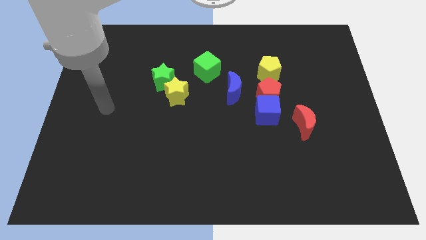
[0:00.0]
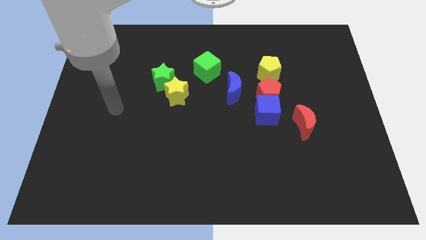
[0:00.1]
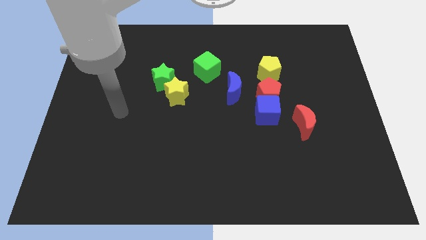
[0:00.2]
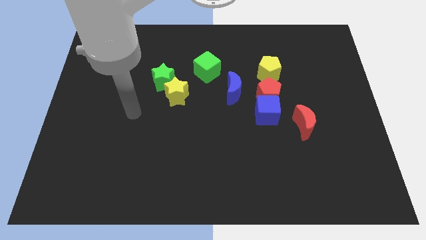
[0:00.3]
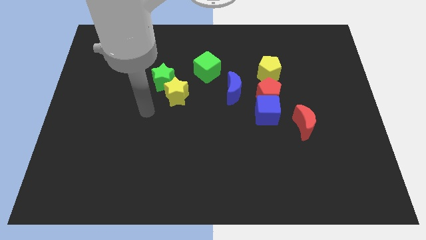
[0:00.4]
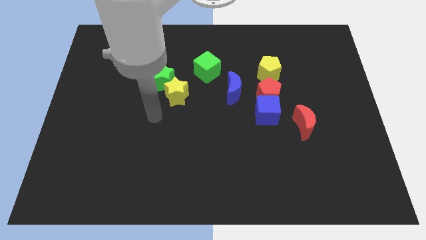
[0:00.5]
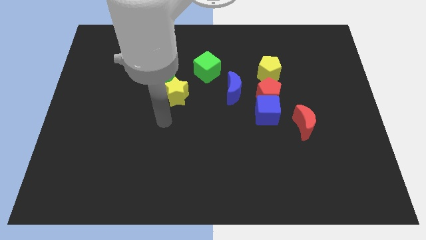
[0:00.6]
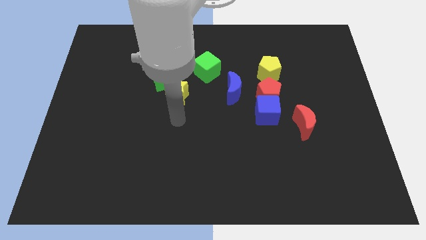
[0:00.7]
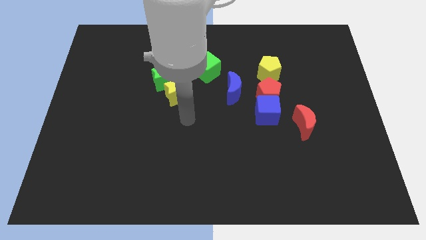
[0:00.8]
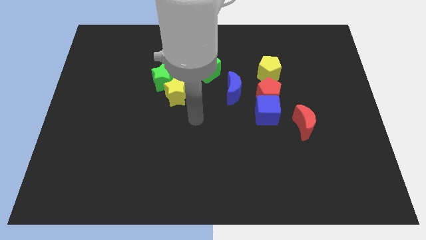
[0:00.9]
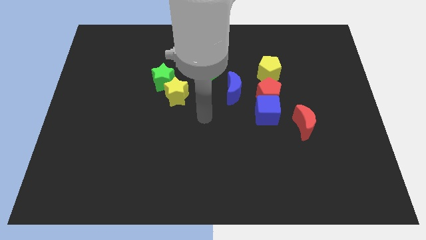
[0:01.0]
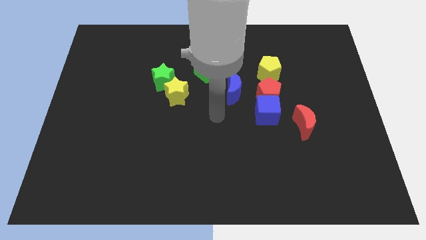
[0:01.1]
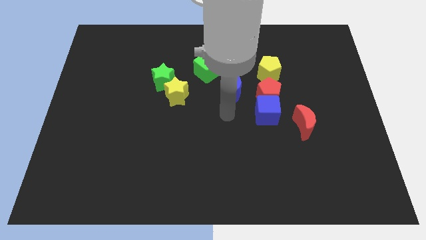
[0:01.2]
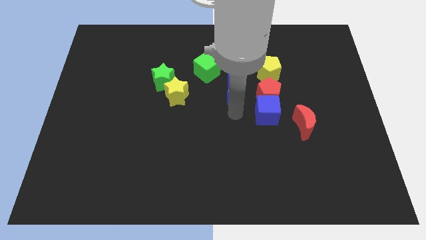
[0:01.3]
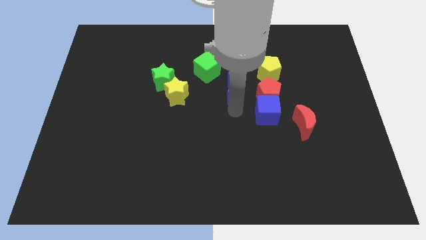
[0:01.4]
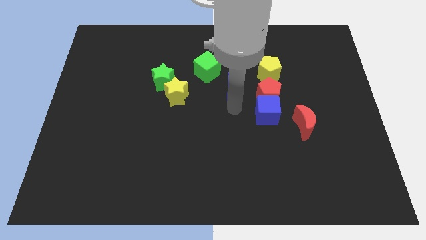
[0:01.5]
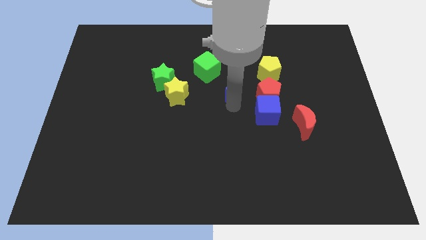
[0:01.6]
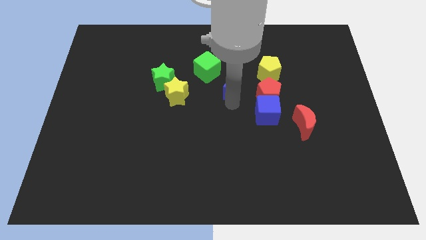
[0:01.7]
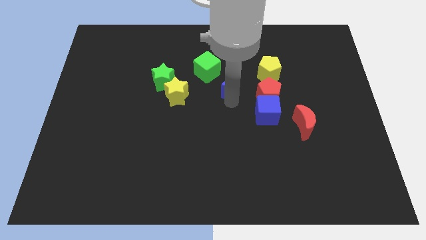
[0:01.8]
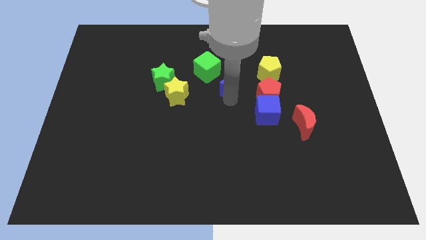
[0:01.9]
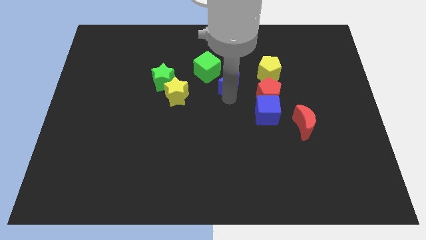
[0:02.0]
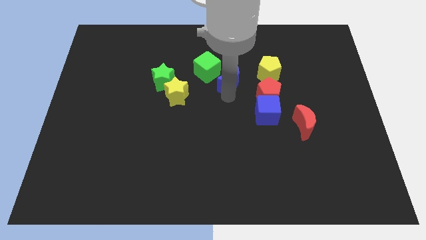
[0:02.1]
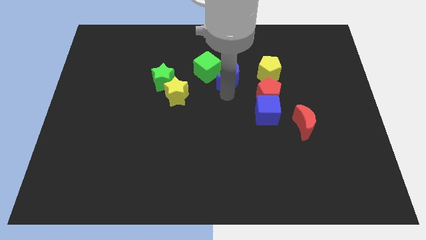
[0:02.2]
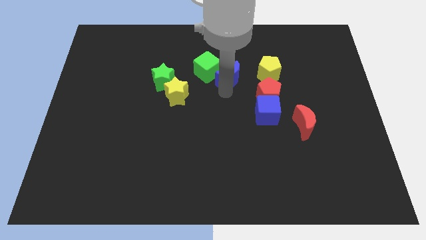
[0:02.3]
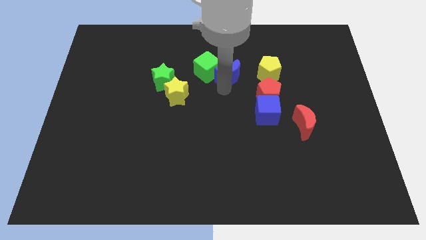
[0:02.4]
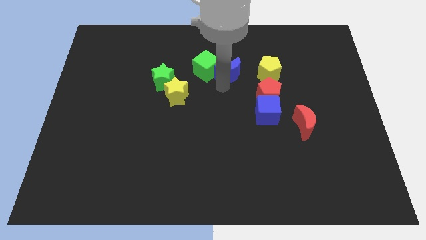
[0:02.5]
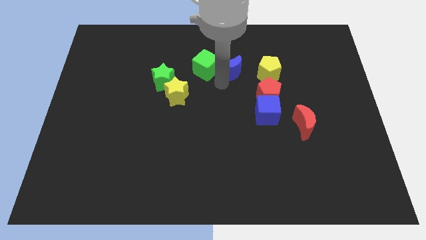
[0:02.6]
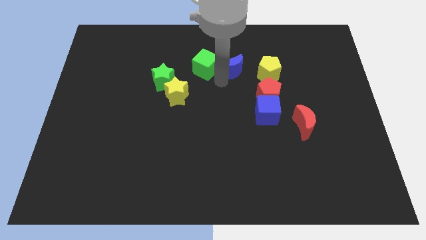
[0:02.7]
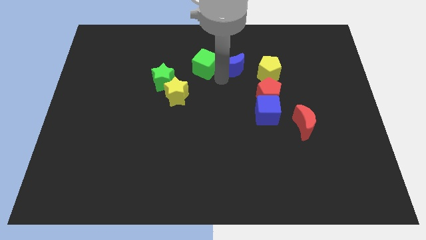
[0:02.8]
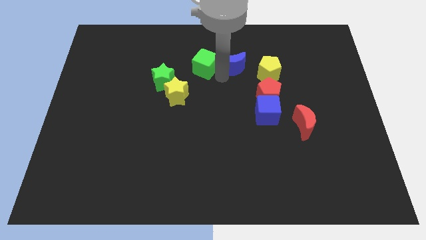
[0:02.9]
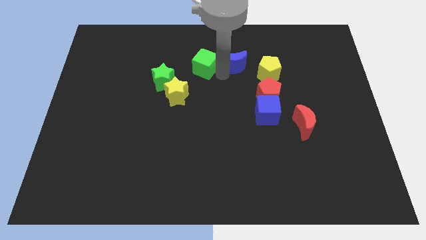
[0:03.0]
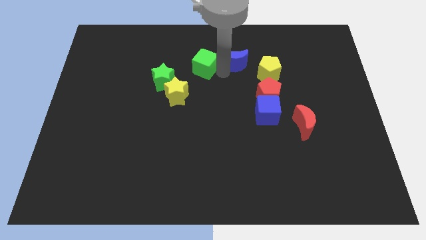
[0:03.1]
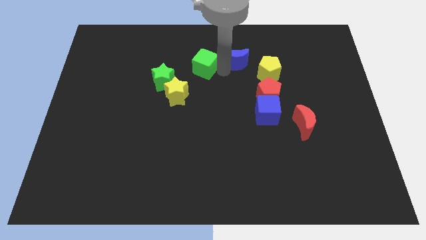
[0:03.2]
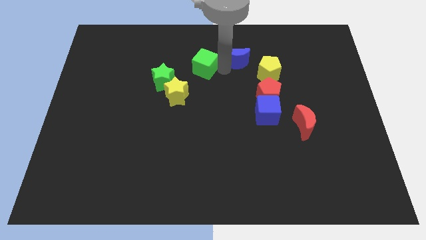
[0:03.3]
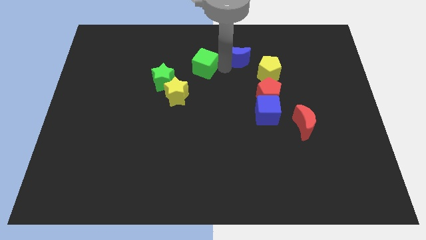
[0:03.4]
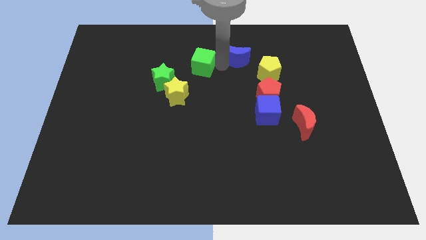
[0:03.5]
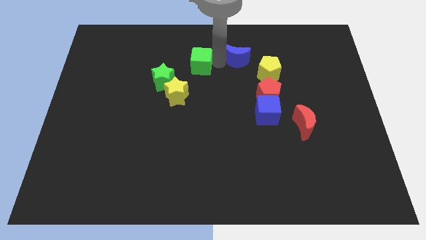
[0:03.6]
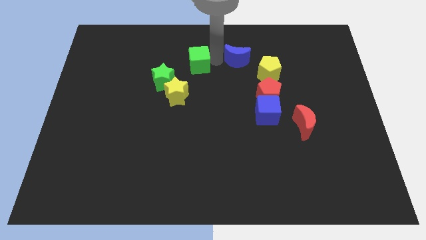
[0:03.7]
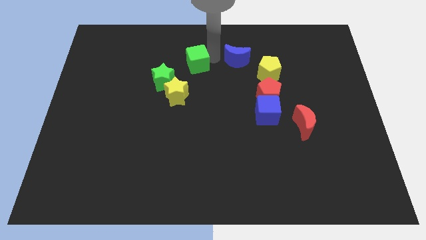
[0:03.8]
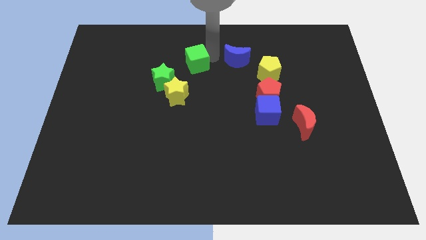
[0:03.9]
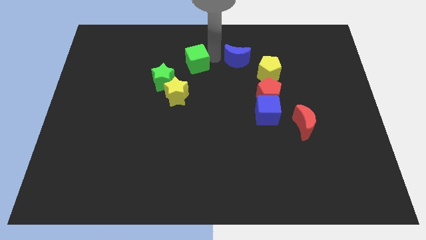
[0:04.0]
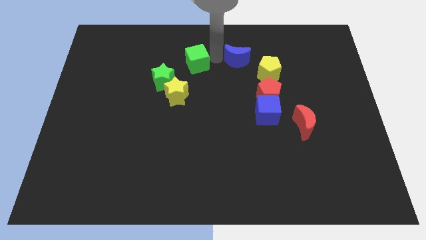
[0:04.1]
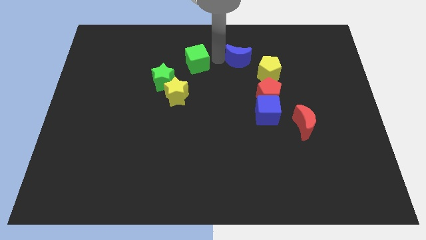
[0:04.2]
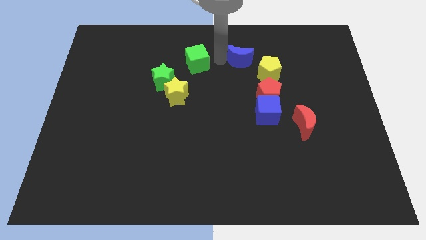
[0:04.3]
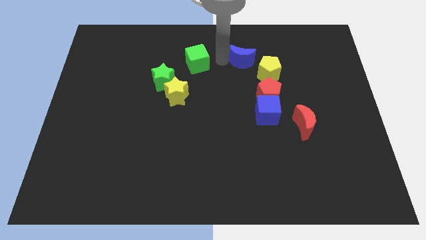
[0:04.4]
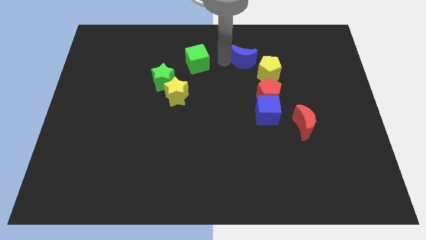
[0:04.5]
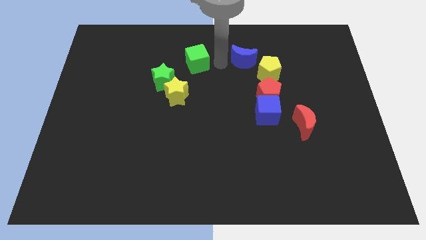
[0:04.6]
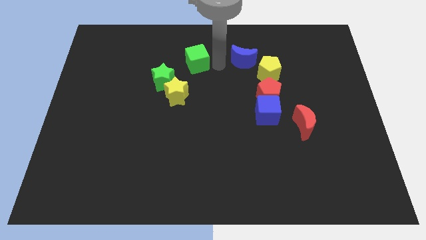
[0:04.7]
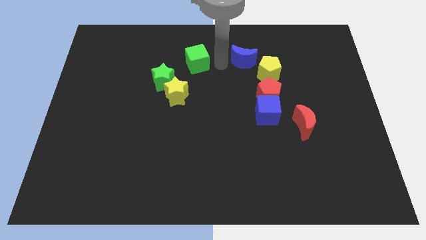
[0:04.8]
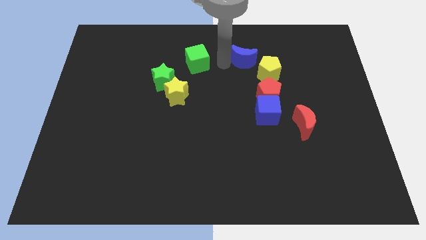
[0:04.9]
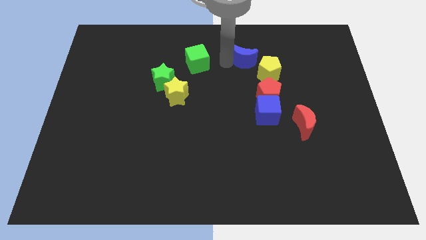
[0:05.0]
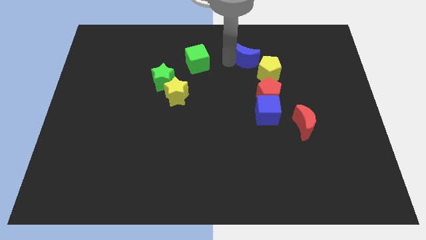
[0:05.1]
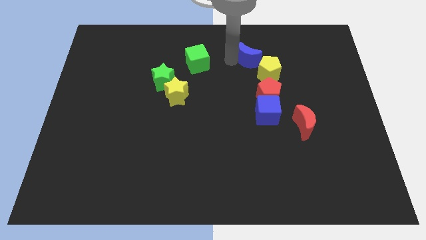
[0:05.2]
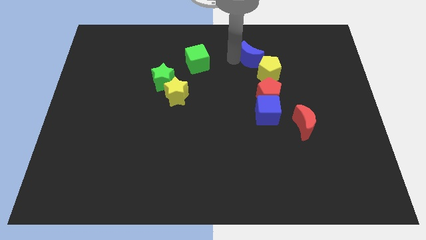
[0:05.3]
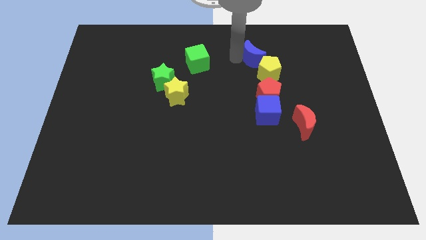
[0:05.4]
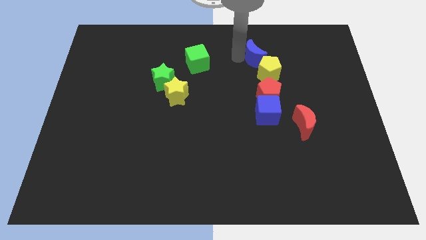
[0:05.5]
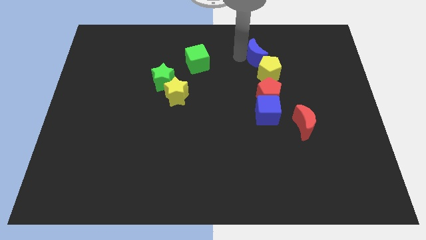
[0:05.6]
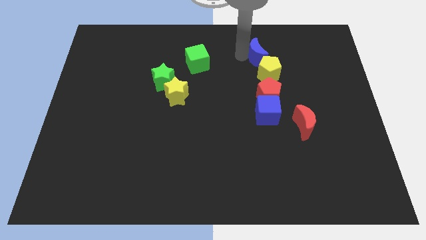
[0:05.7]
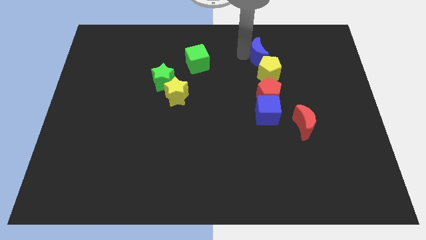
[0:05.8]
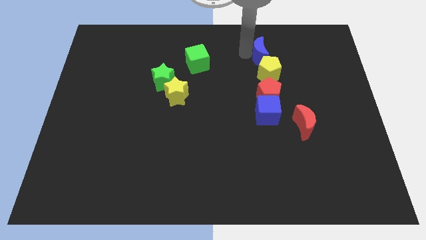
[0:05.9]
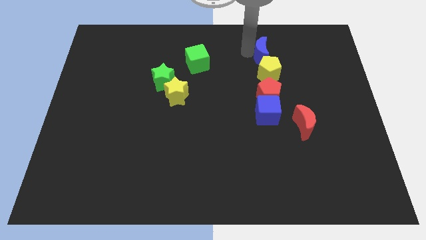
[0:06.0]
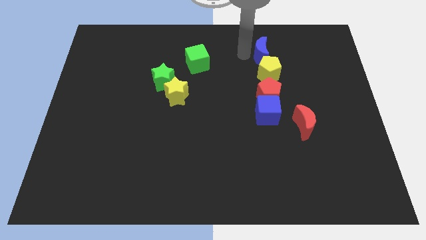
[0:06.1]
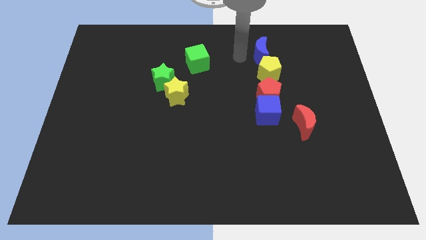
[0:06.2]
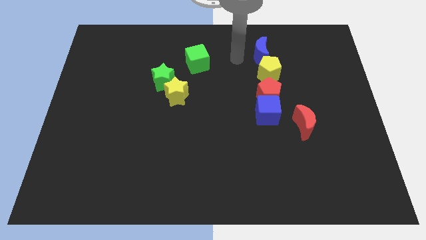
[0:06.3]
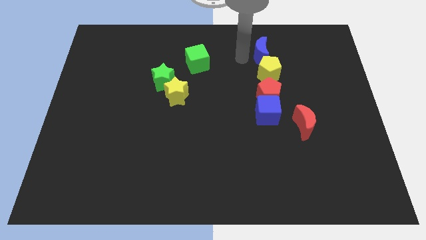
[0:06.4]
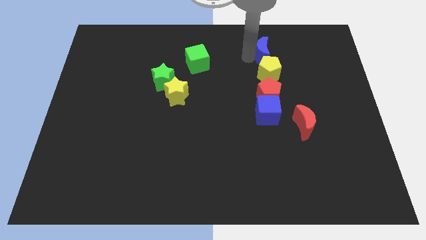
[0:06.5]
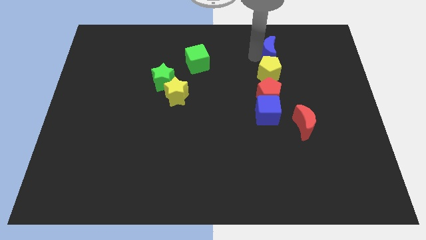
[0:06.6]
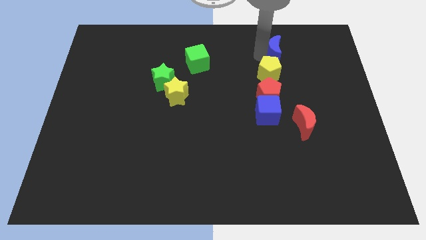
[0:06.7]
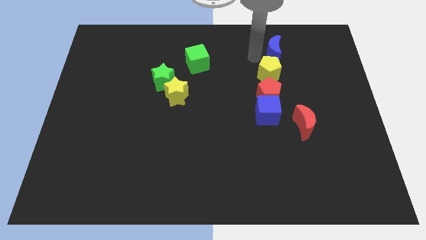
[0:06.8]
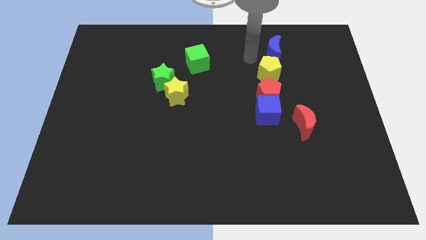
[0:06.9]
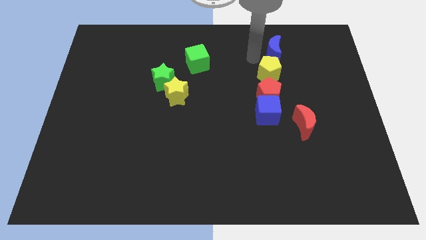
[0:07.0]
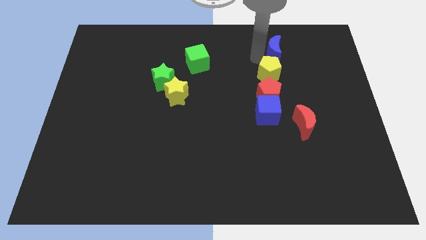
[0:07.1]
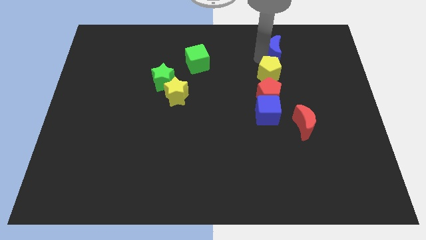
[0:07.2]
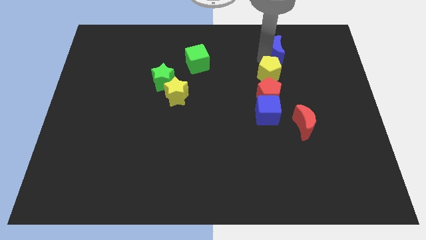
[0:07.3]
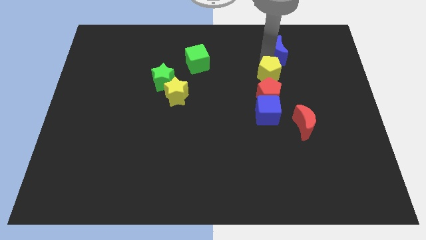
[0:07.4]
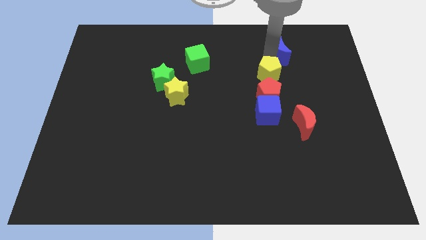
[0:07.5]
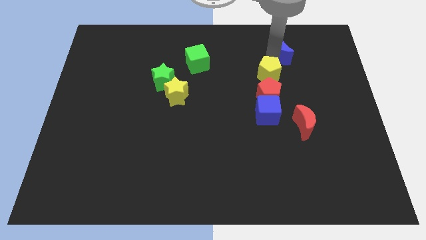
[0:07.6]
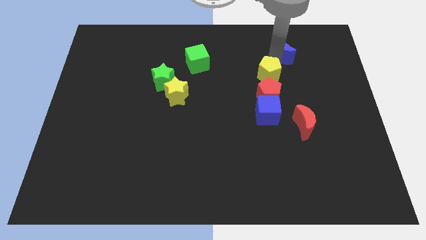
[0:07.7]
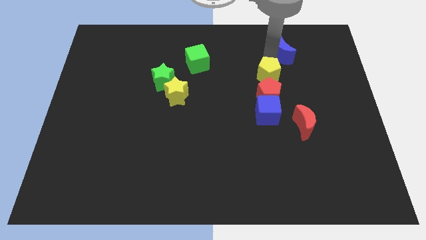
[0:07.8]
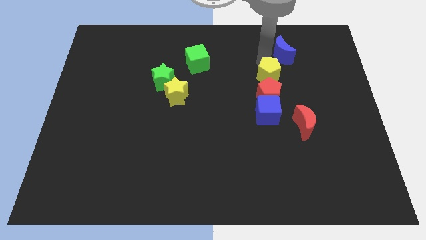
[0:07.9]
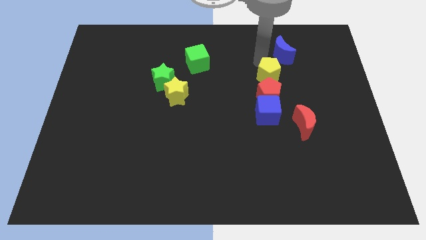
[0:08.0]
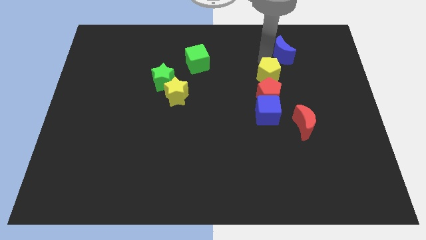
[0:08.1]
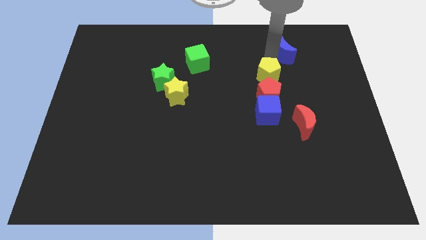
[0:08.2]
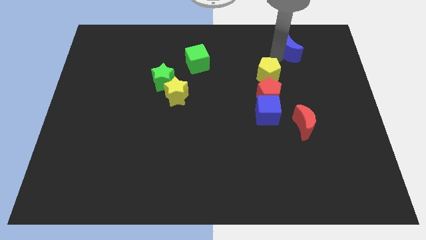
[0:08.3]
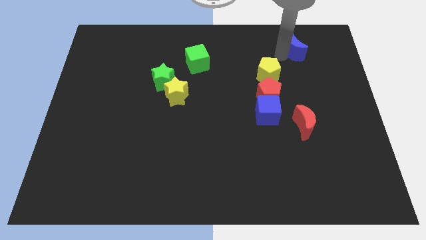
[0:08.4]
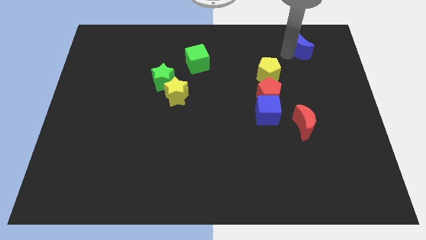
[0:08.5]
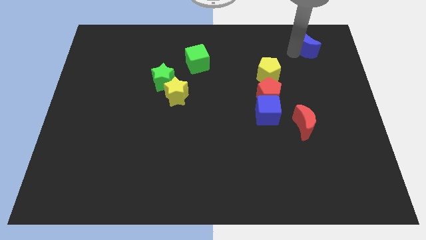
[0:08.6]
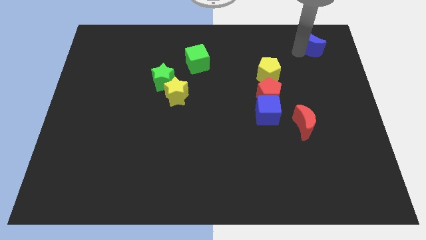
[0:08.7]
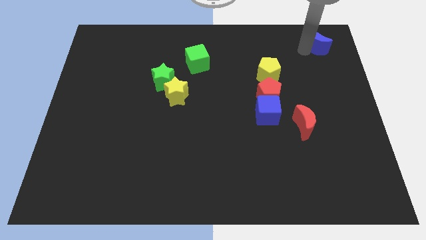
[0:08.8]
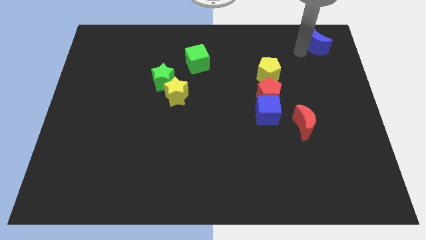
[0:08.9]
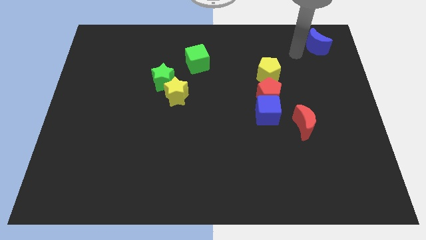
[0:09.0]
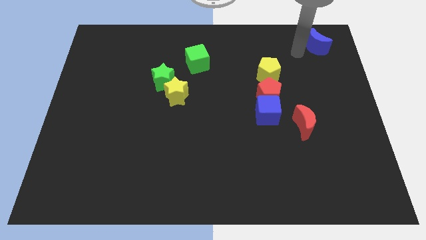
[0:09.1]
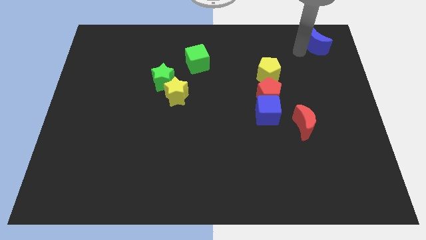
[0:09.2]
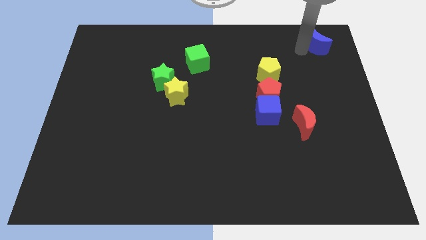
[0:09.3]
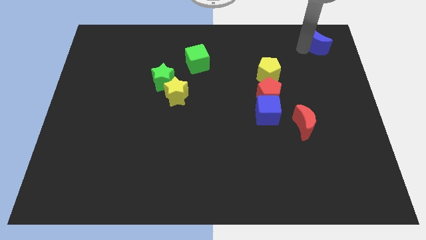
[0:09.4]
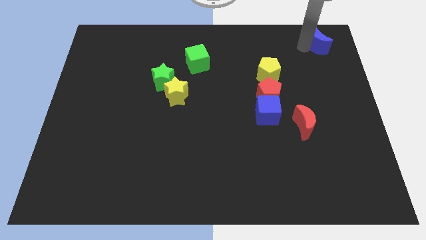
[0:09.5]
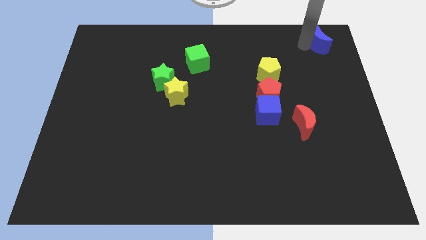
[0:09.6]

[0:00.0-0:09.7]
push the blue moon to the top right
